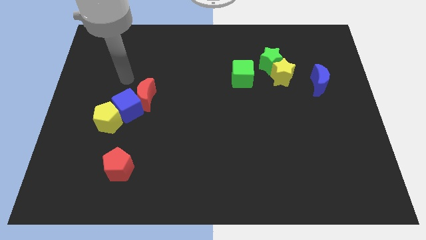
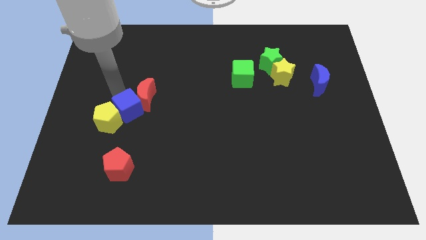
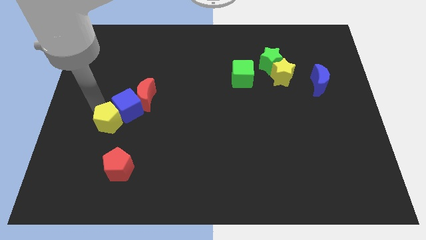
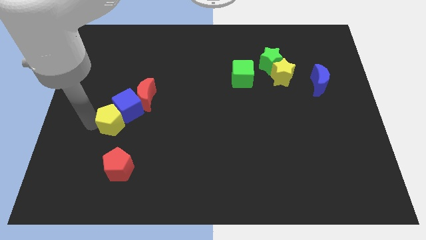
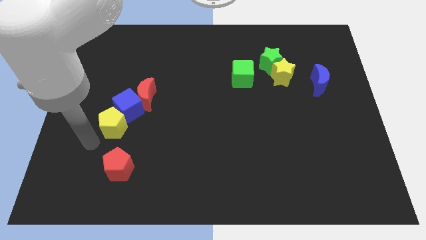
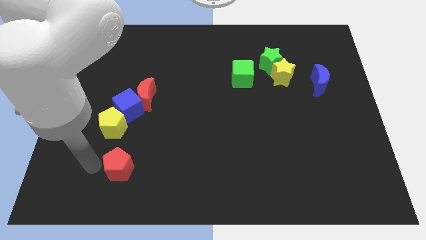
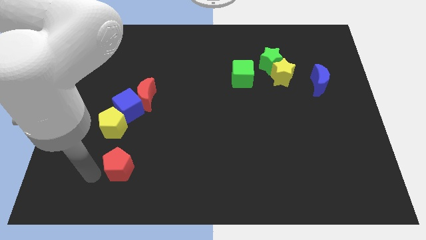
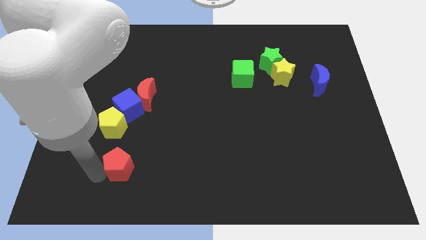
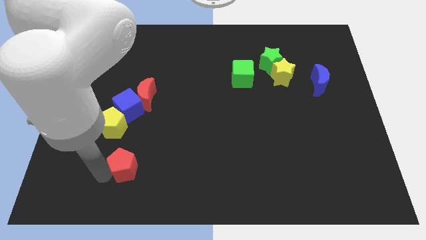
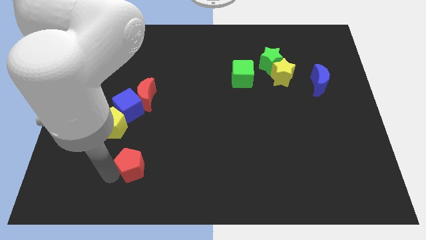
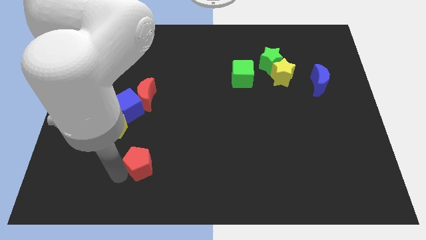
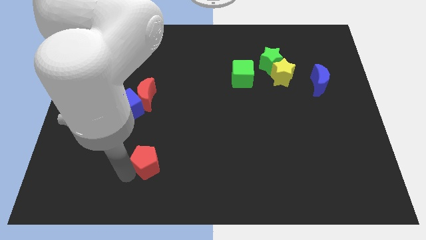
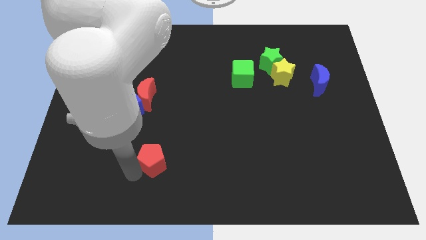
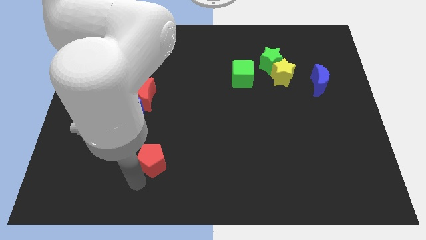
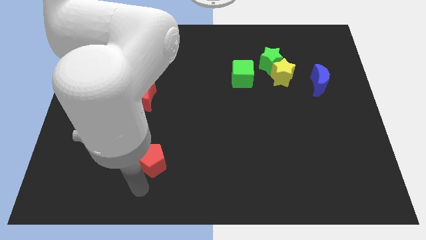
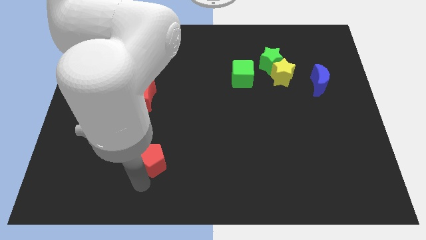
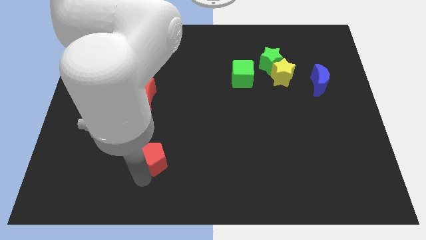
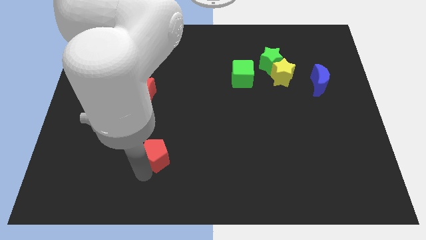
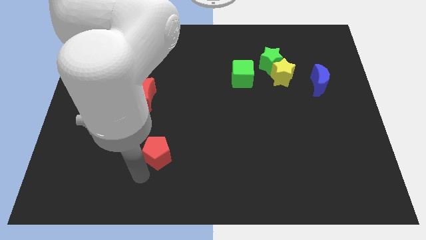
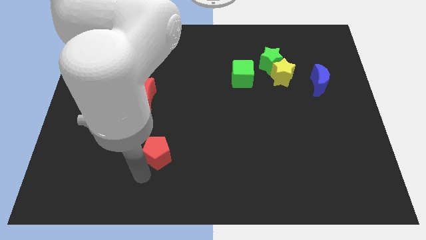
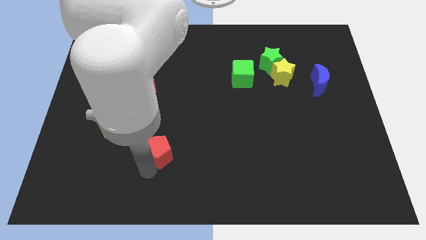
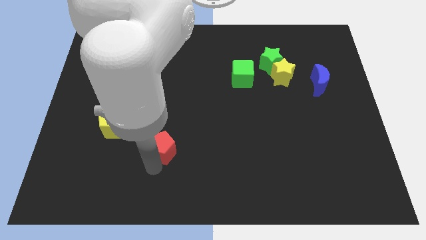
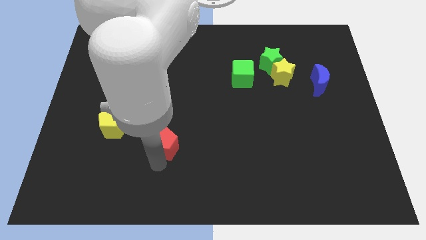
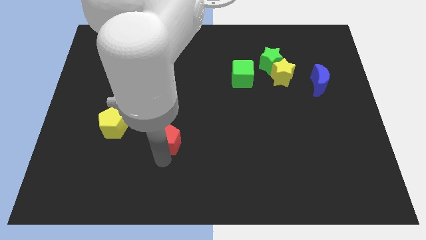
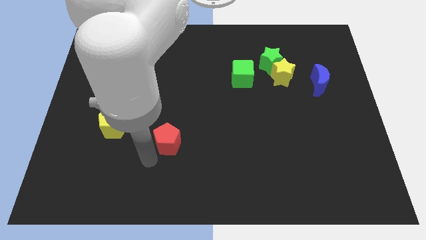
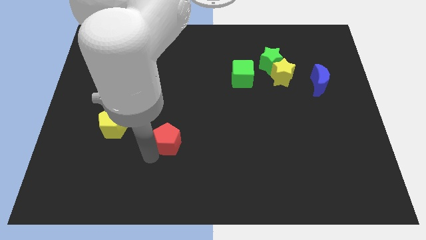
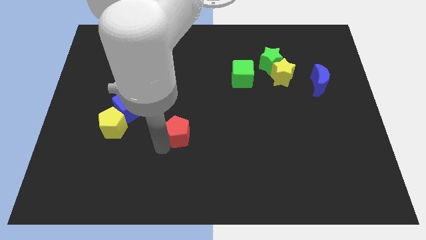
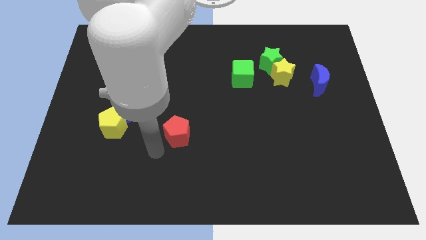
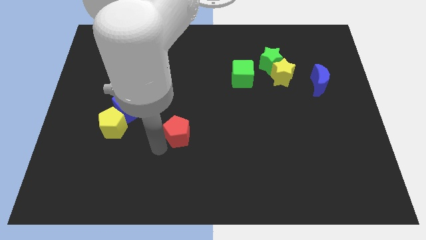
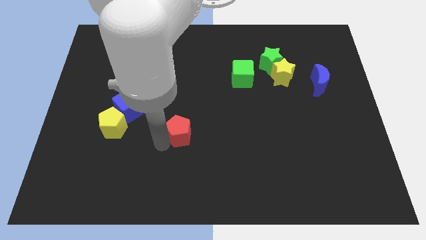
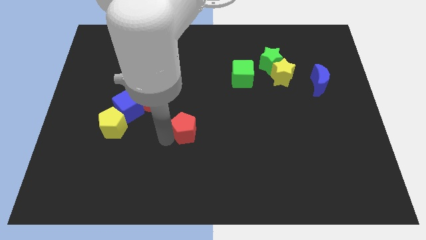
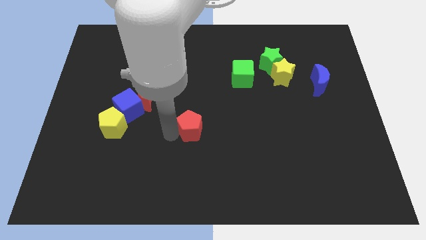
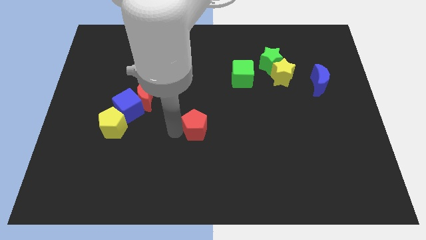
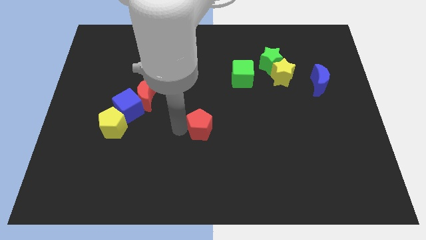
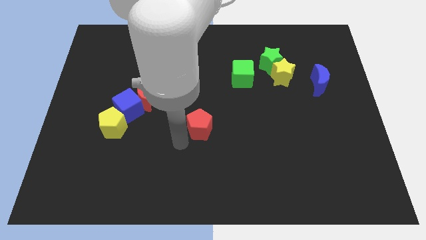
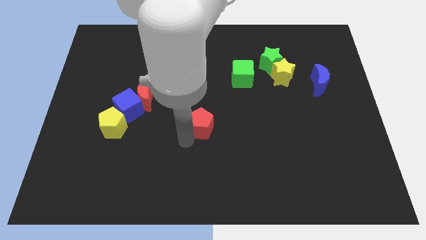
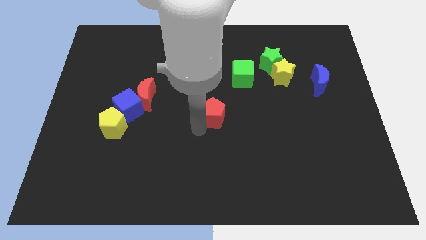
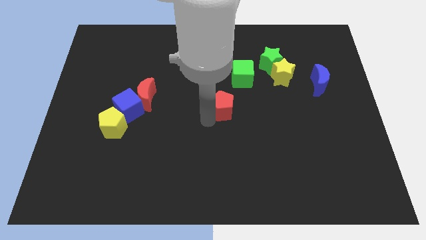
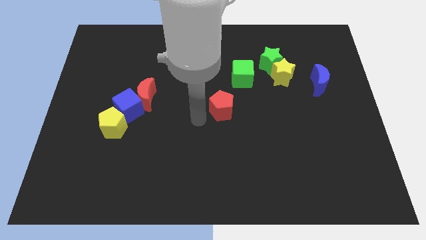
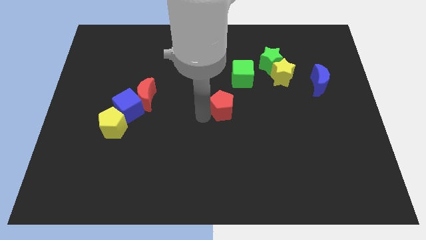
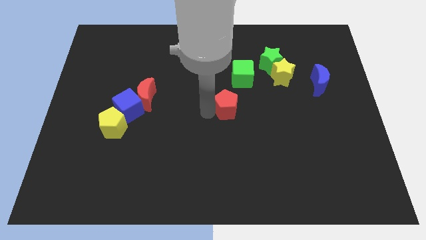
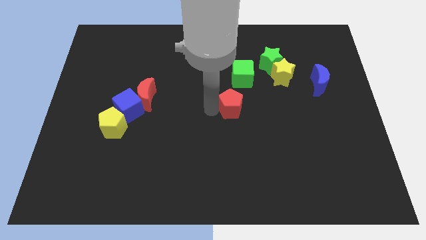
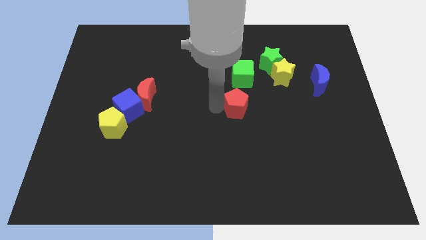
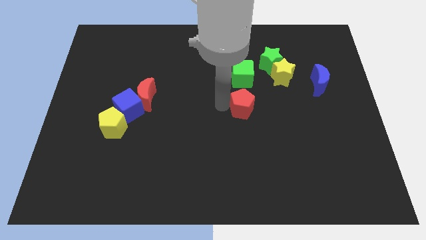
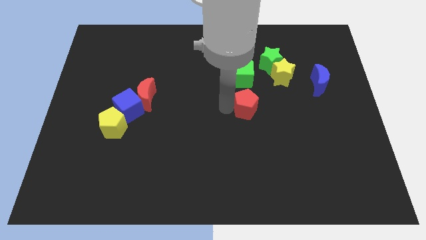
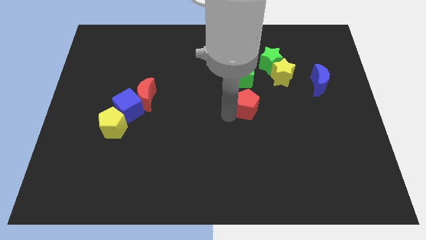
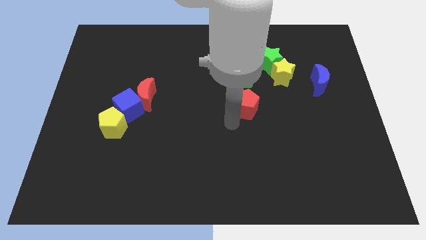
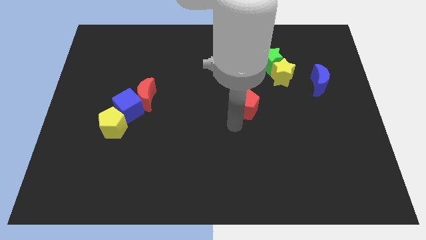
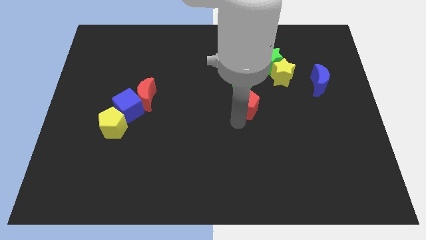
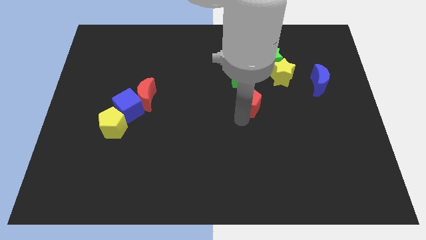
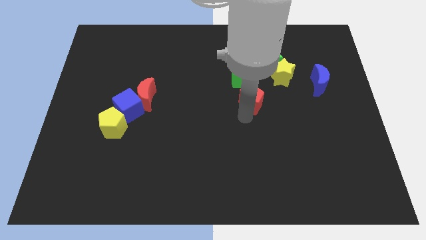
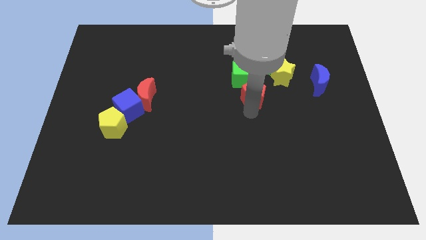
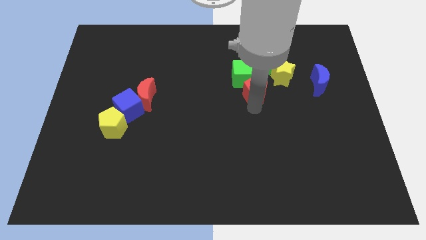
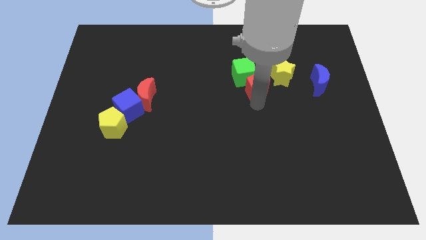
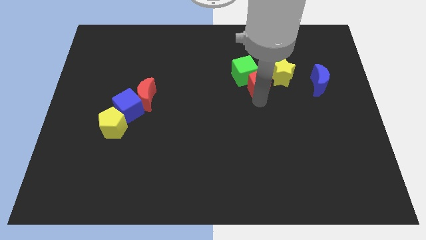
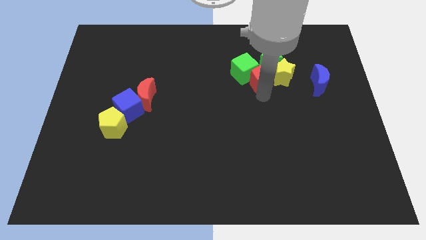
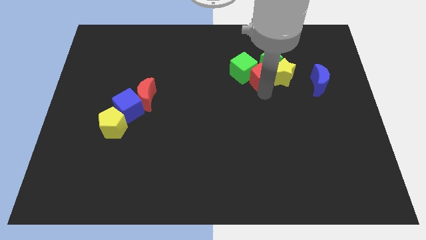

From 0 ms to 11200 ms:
put the red pentagon close to the green star

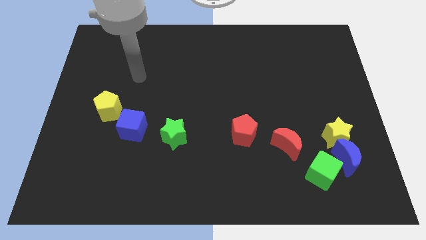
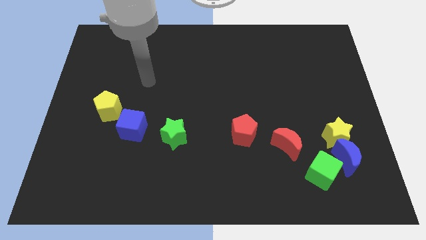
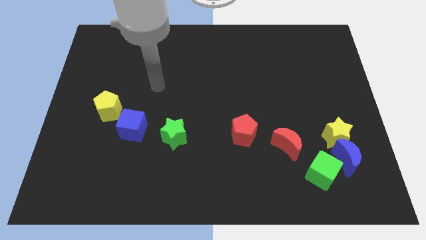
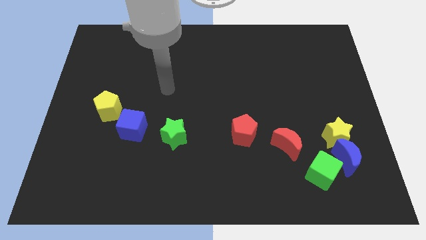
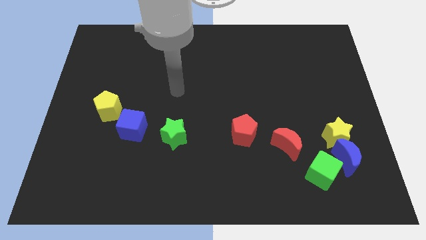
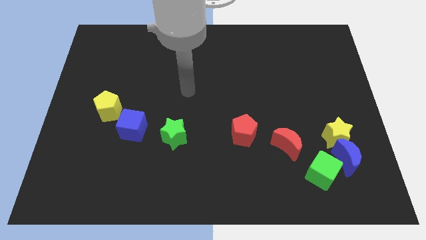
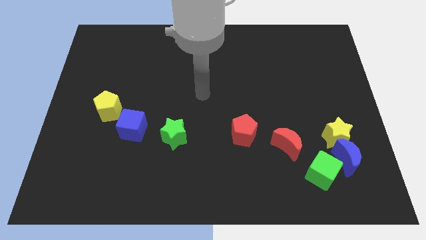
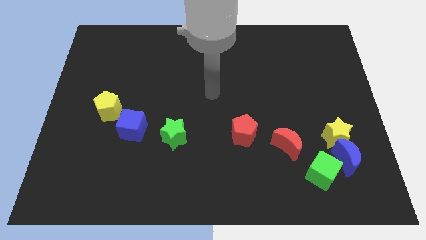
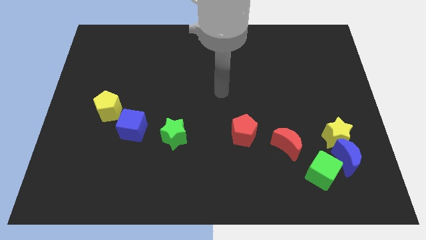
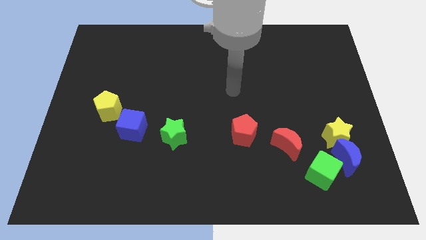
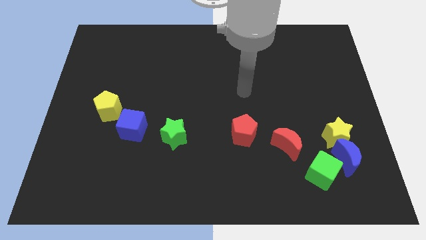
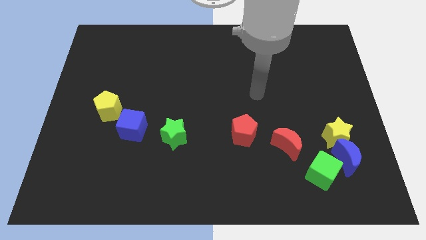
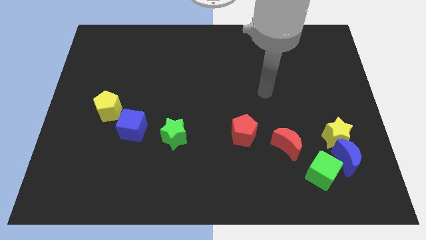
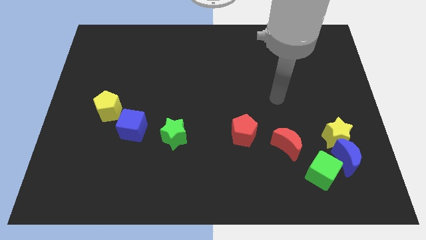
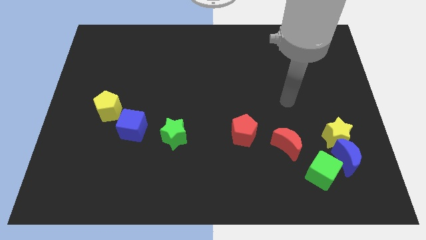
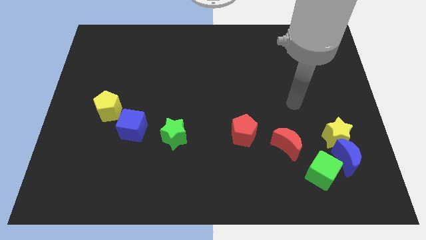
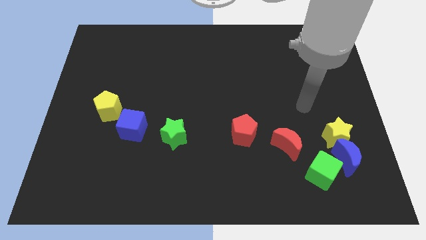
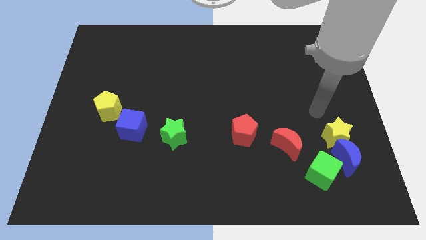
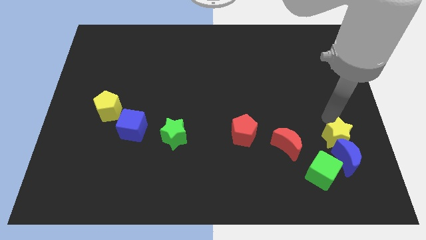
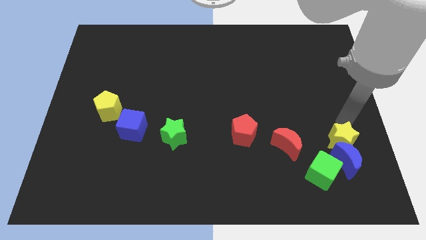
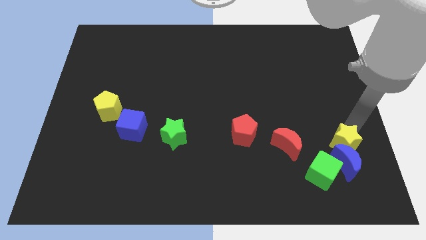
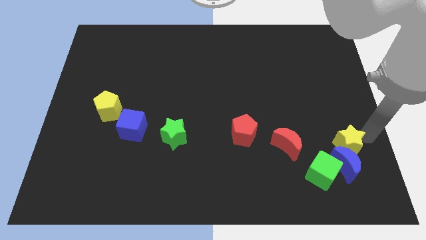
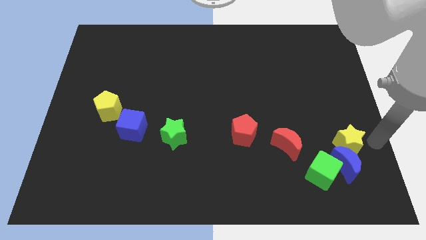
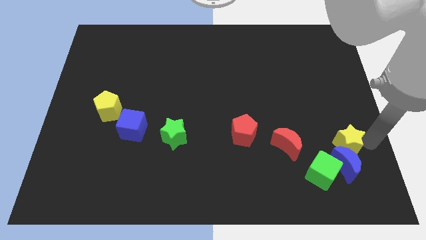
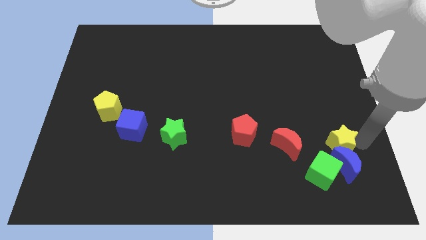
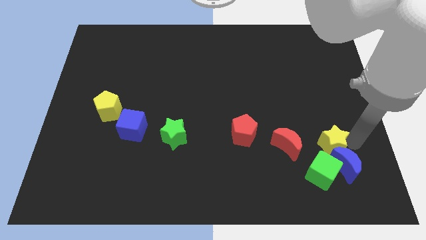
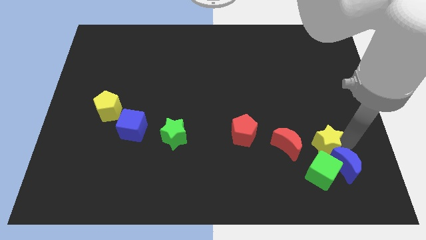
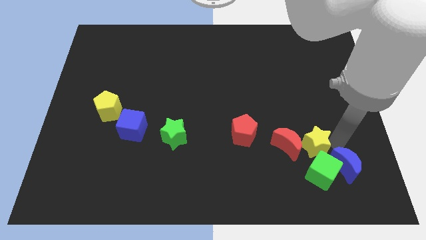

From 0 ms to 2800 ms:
push the yellow star to the red moon
